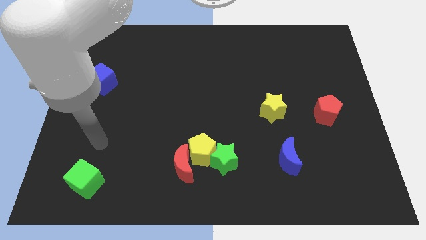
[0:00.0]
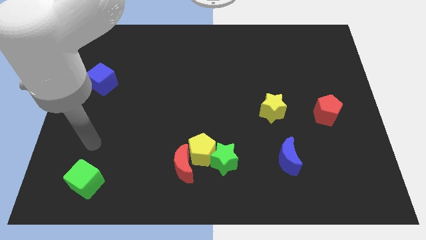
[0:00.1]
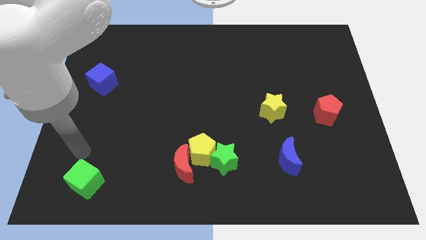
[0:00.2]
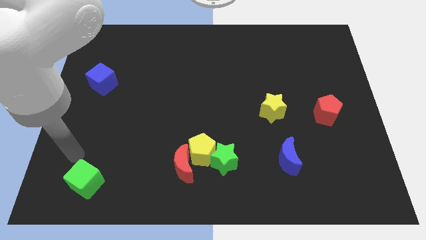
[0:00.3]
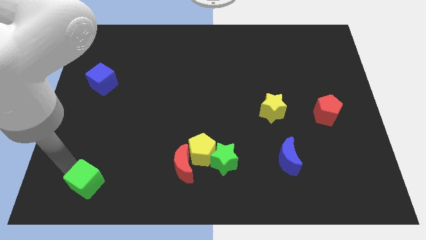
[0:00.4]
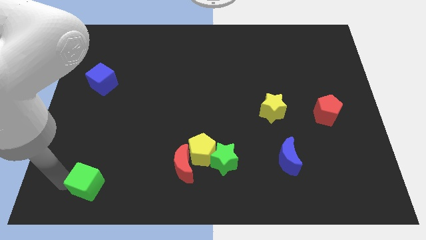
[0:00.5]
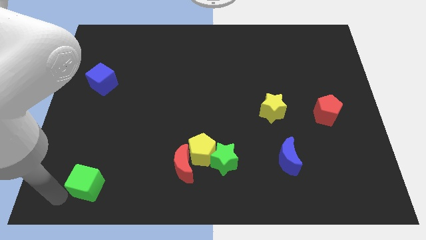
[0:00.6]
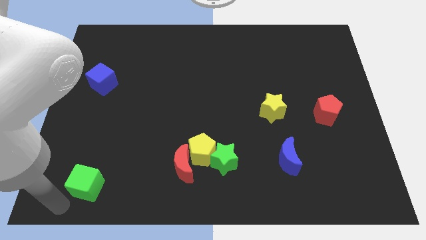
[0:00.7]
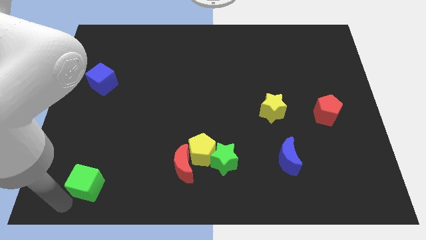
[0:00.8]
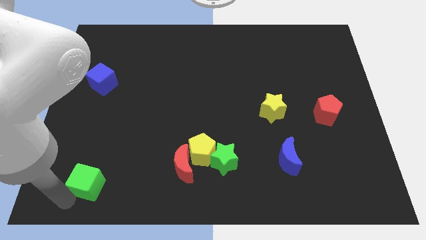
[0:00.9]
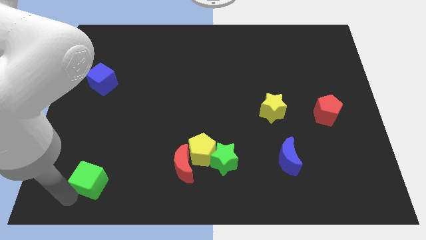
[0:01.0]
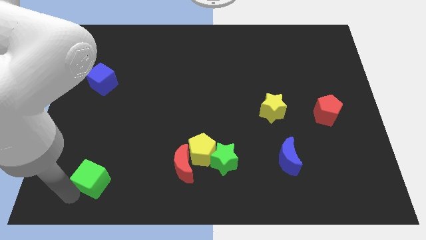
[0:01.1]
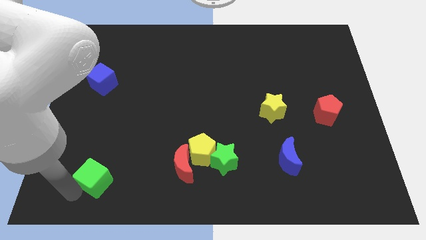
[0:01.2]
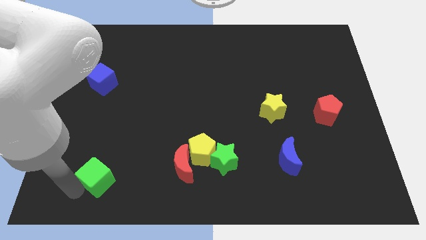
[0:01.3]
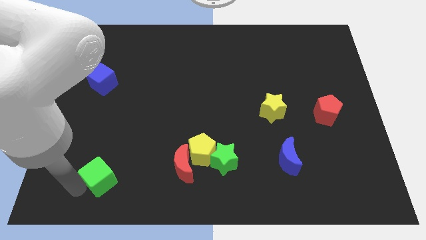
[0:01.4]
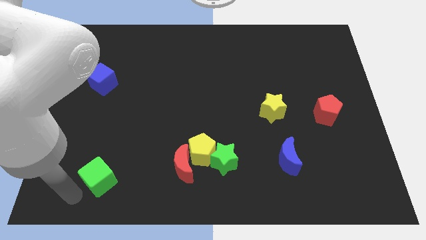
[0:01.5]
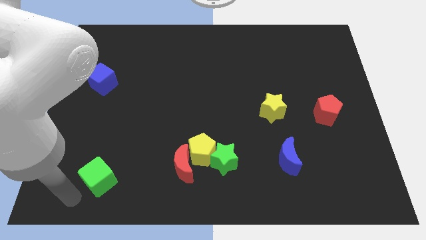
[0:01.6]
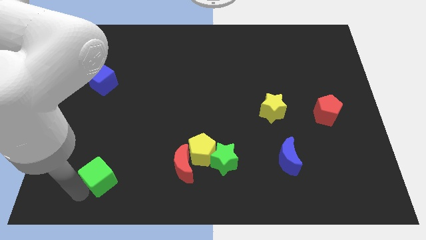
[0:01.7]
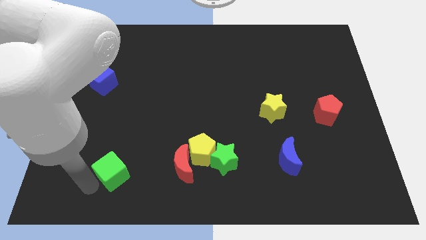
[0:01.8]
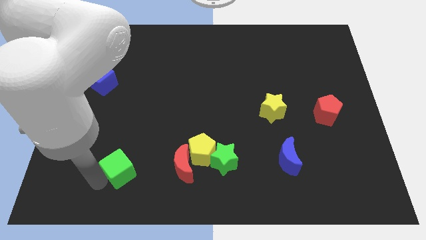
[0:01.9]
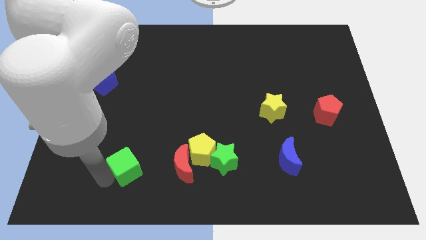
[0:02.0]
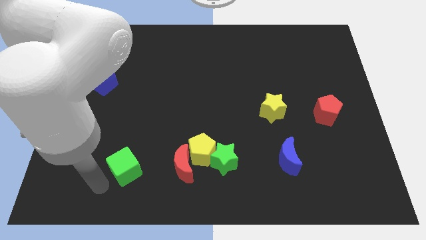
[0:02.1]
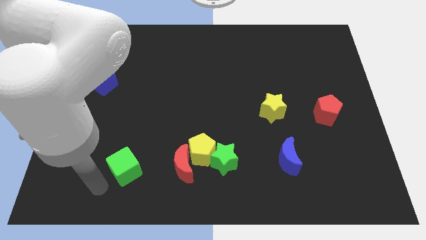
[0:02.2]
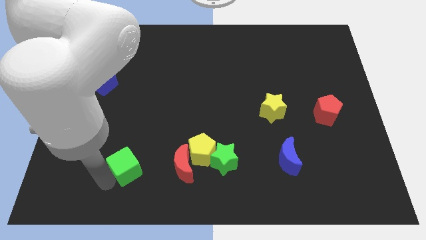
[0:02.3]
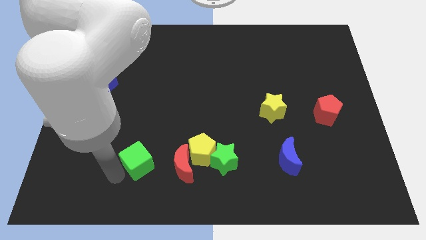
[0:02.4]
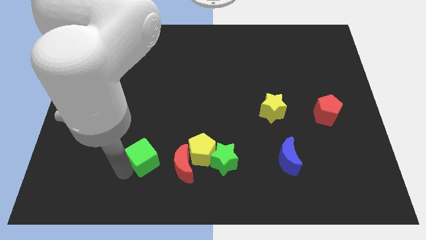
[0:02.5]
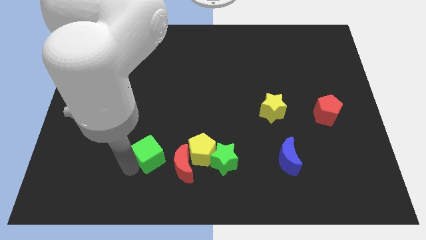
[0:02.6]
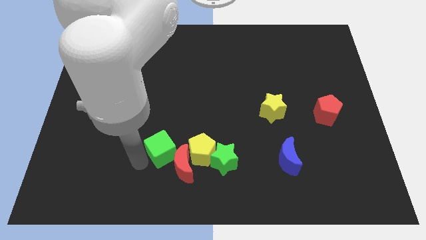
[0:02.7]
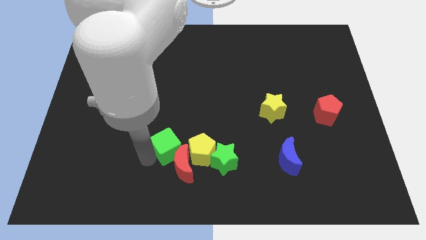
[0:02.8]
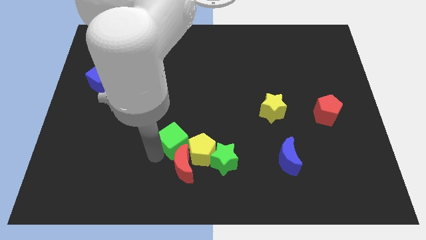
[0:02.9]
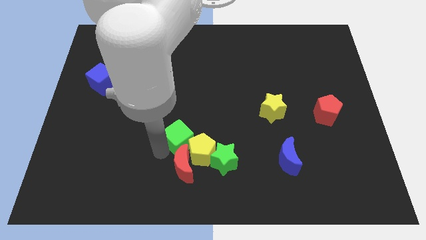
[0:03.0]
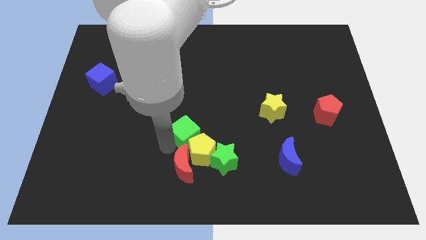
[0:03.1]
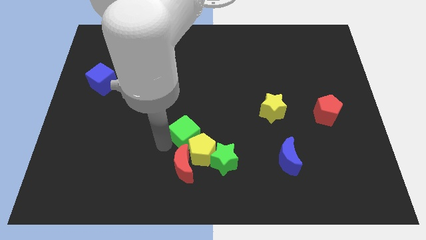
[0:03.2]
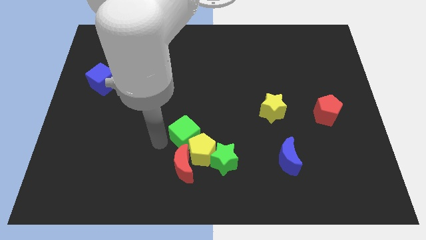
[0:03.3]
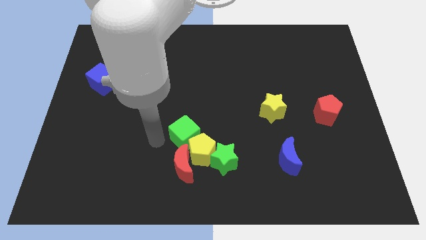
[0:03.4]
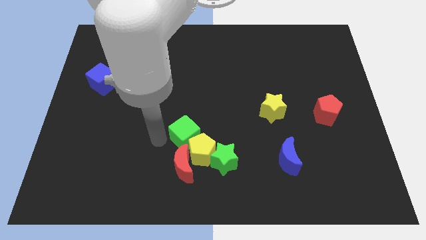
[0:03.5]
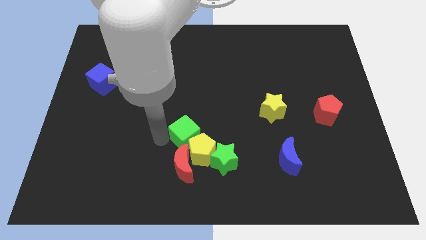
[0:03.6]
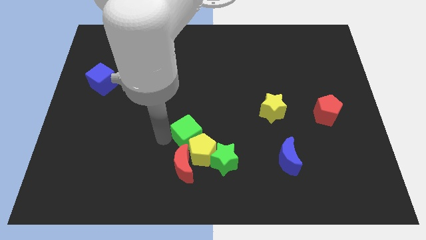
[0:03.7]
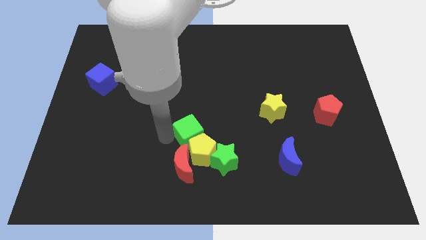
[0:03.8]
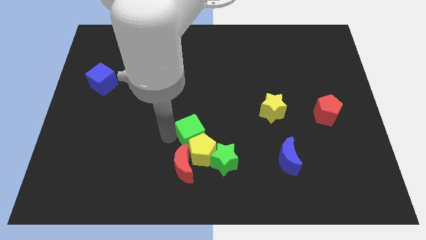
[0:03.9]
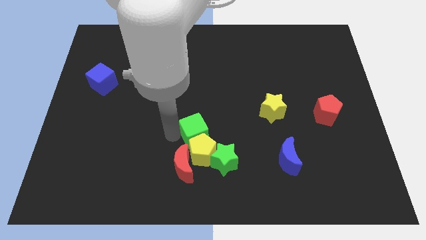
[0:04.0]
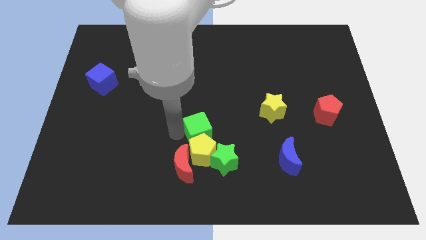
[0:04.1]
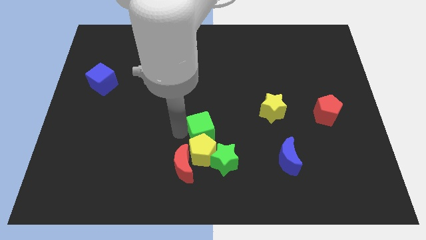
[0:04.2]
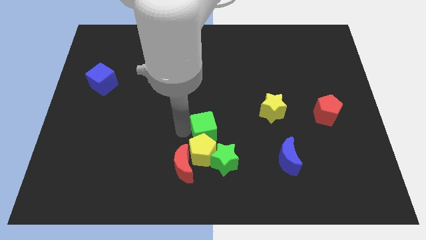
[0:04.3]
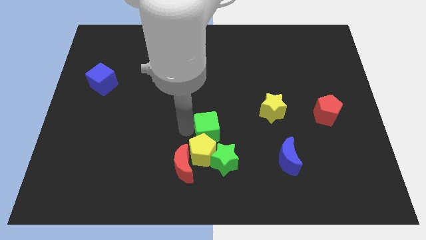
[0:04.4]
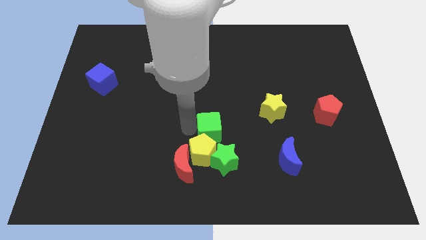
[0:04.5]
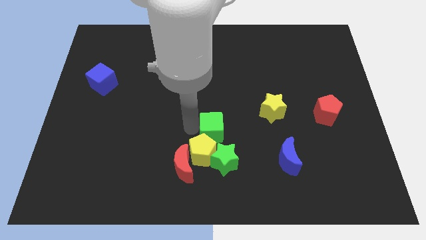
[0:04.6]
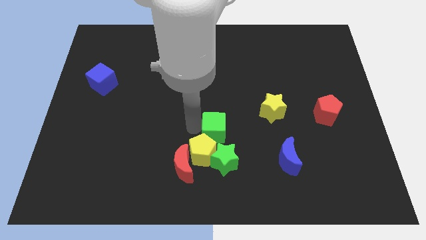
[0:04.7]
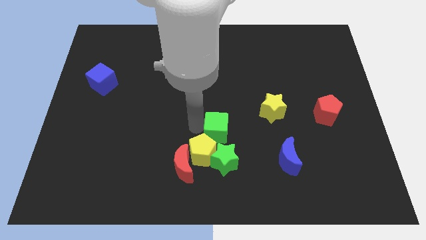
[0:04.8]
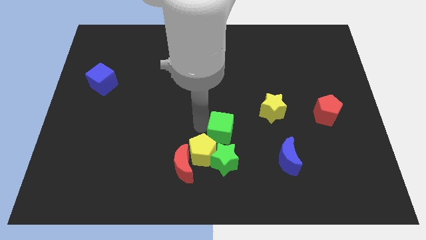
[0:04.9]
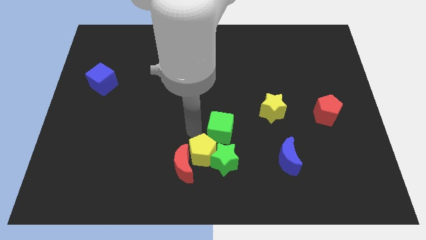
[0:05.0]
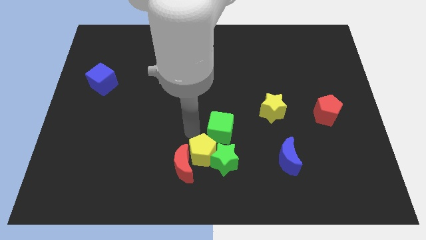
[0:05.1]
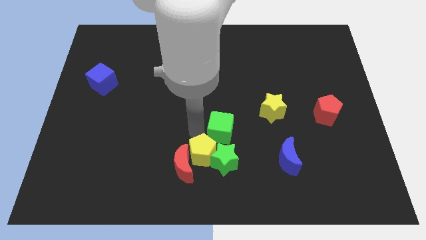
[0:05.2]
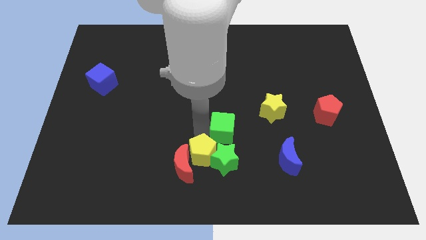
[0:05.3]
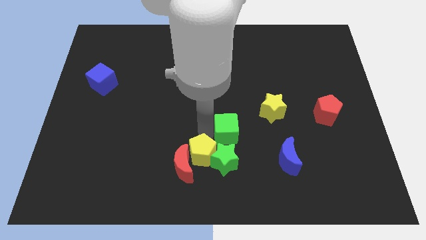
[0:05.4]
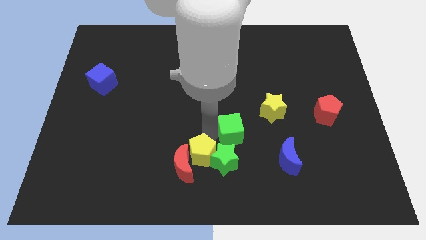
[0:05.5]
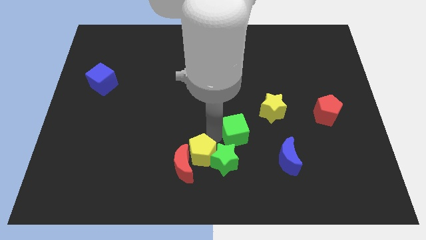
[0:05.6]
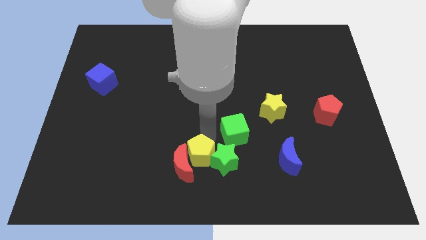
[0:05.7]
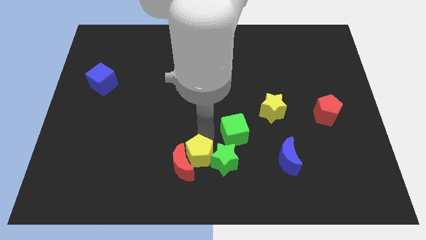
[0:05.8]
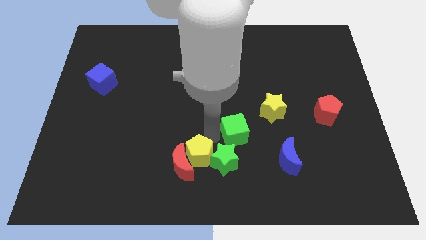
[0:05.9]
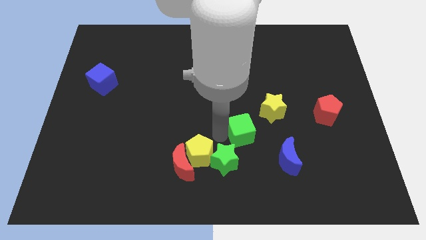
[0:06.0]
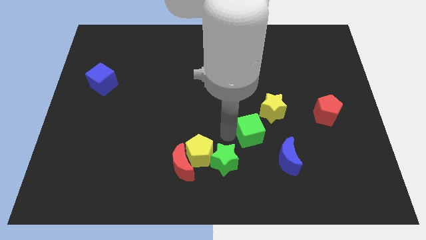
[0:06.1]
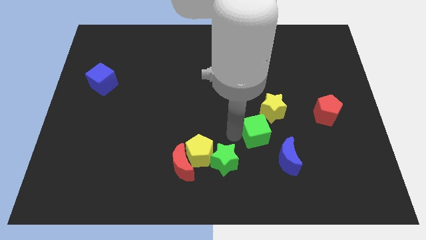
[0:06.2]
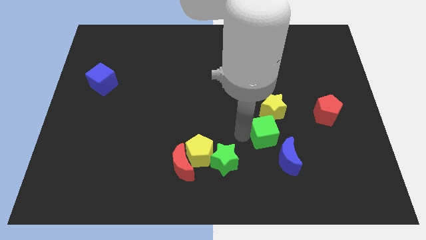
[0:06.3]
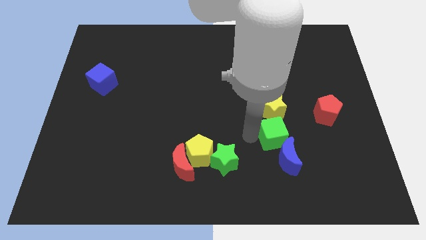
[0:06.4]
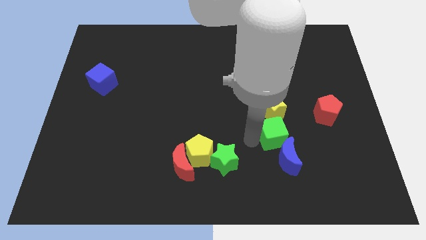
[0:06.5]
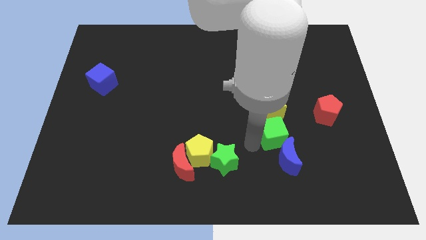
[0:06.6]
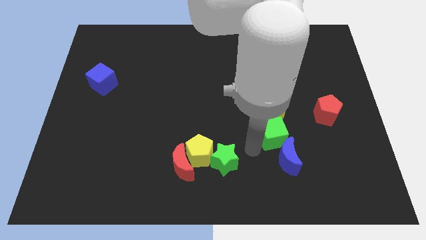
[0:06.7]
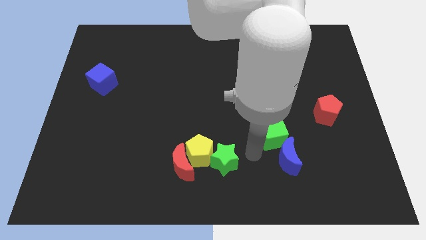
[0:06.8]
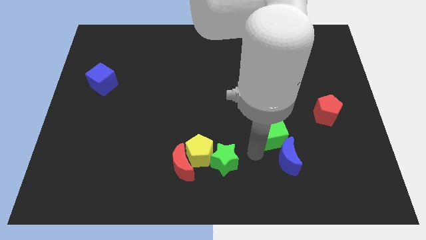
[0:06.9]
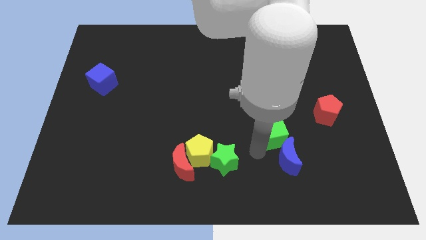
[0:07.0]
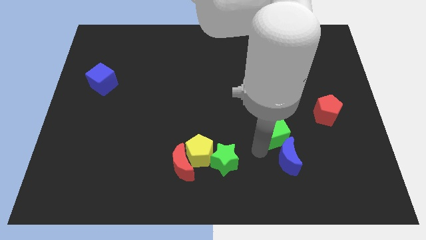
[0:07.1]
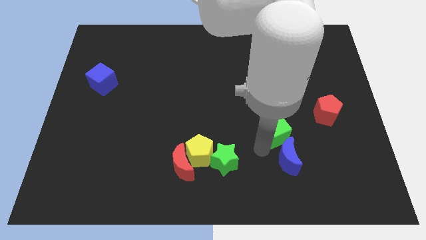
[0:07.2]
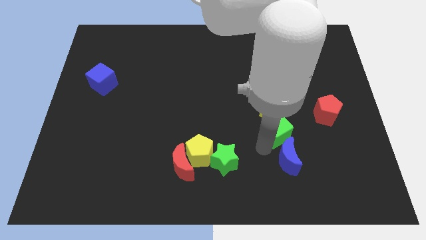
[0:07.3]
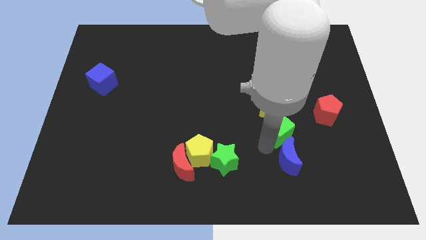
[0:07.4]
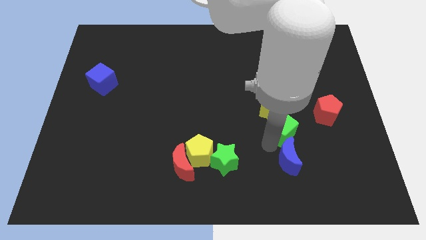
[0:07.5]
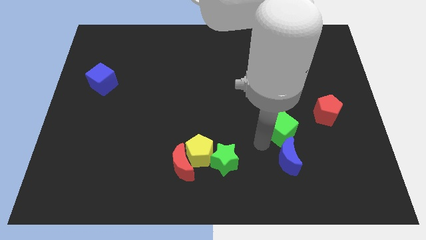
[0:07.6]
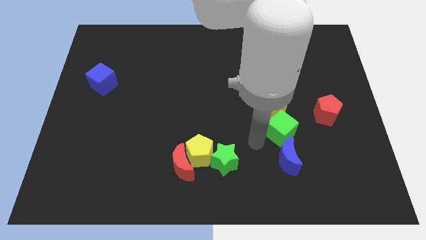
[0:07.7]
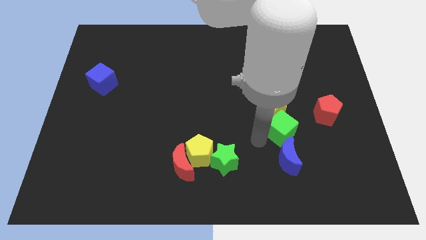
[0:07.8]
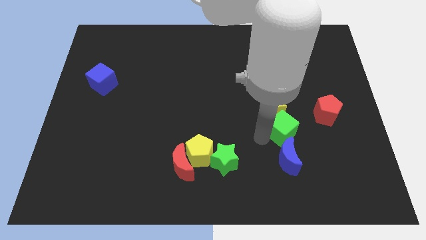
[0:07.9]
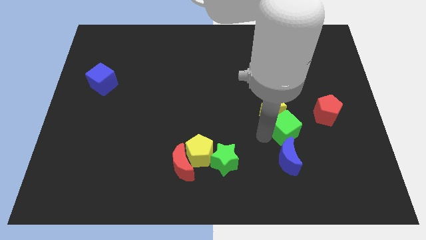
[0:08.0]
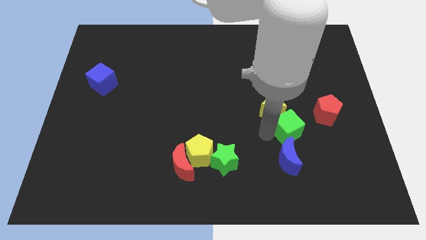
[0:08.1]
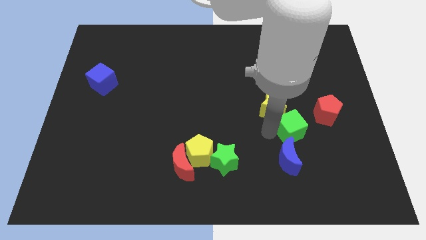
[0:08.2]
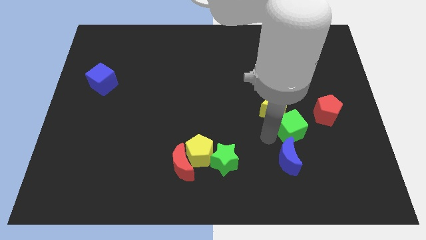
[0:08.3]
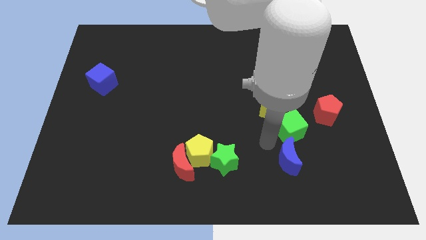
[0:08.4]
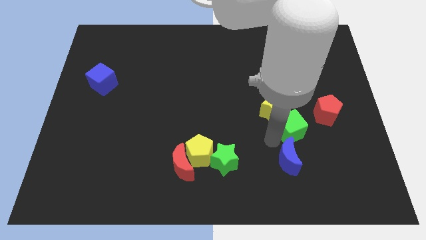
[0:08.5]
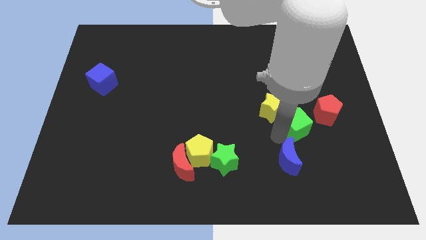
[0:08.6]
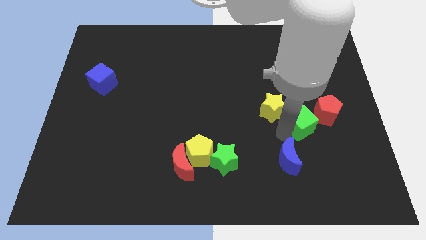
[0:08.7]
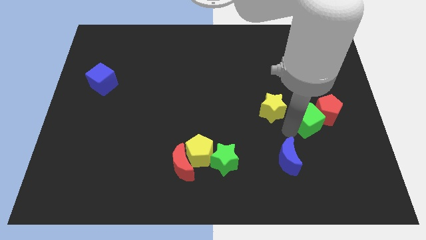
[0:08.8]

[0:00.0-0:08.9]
put the green cube next to the red pentagon
